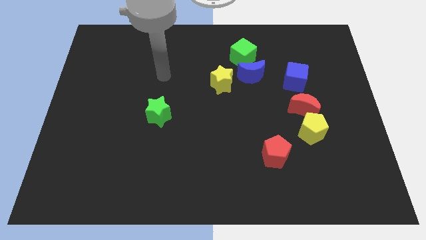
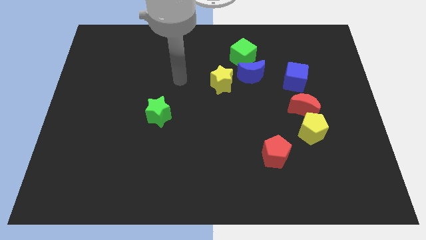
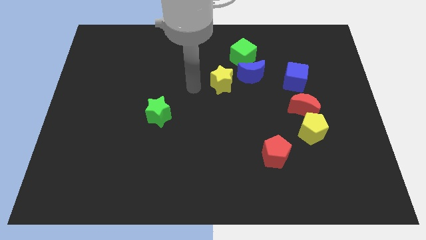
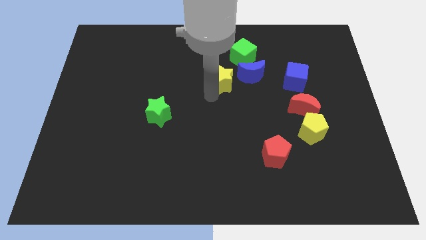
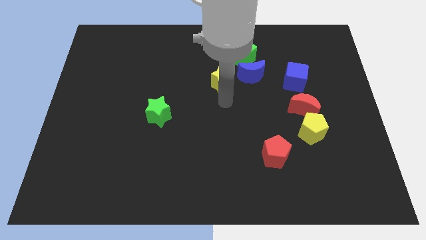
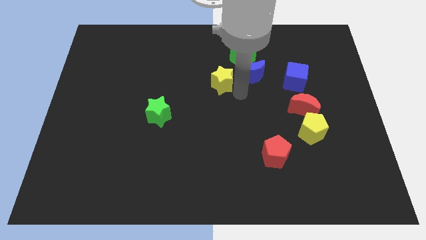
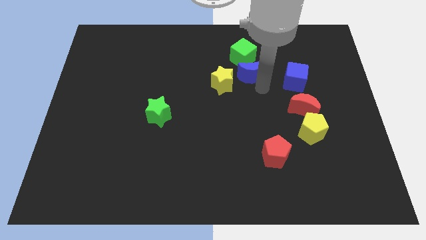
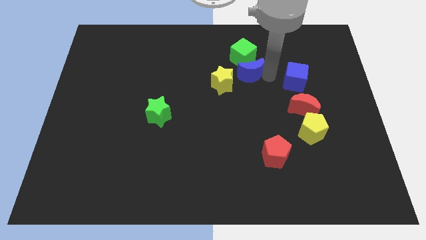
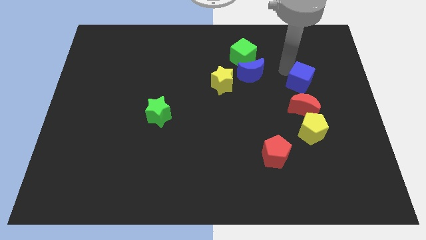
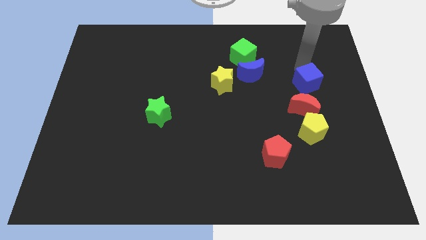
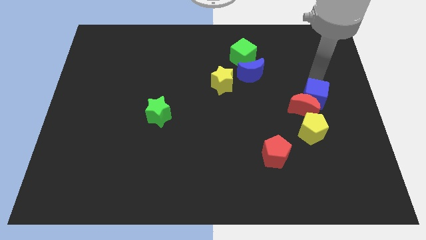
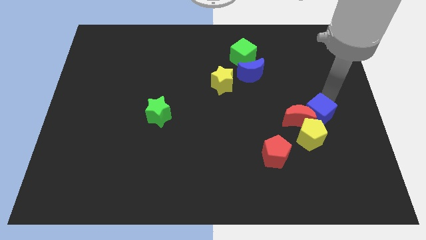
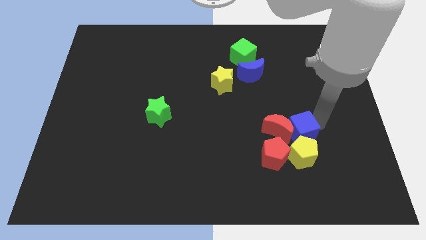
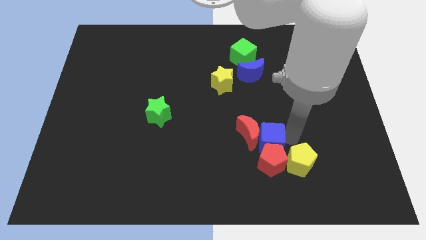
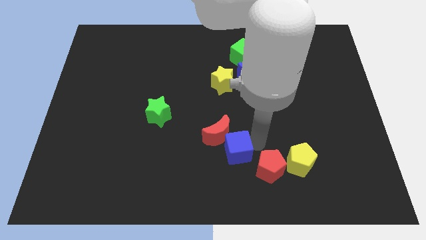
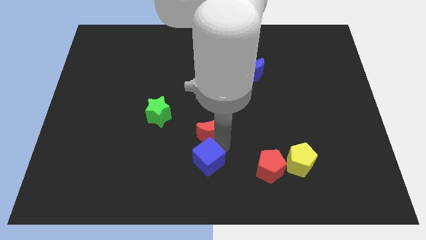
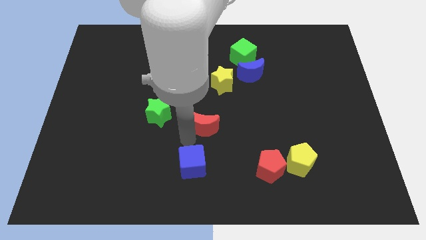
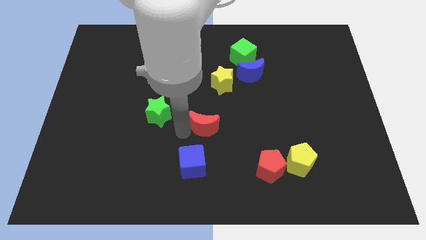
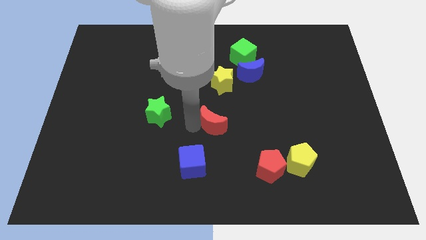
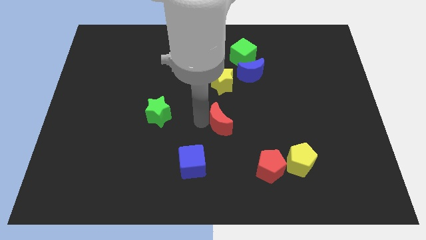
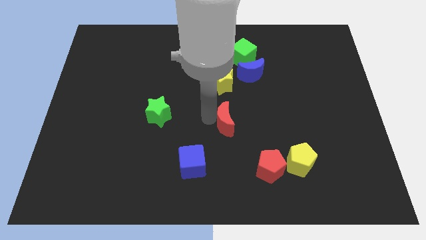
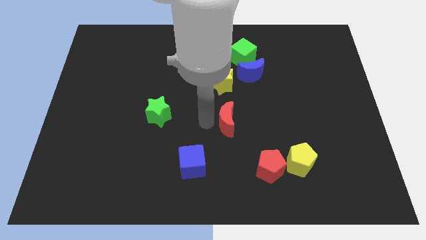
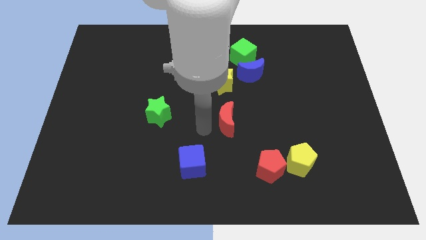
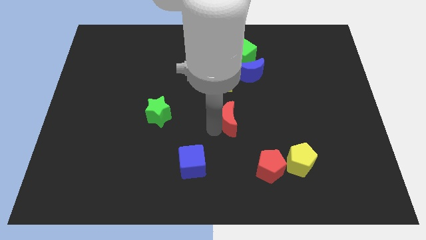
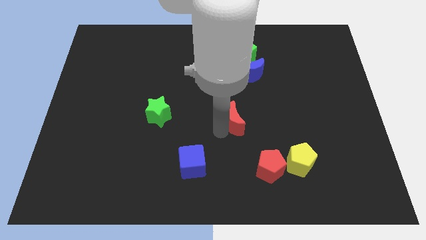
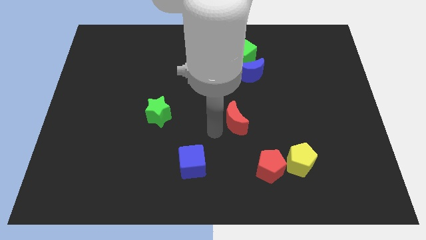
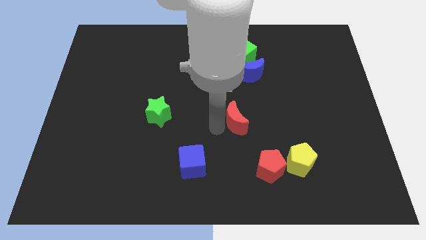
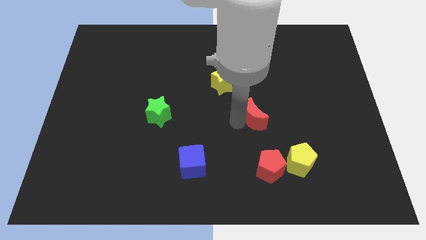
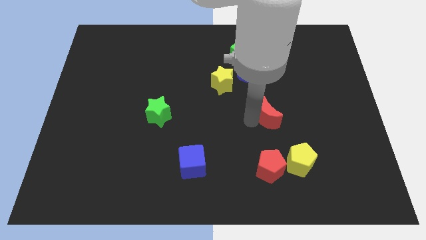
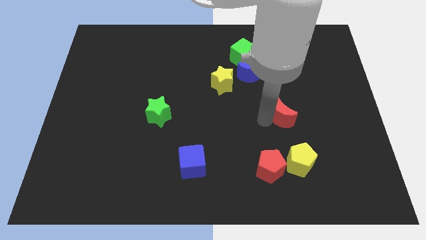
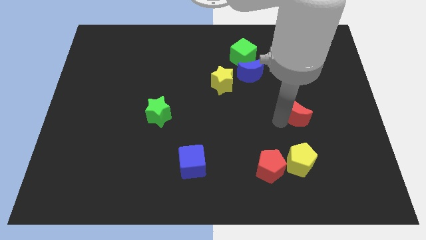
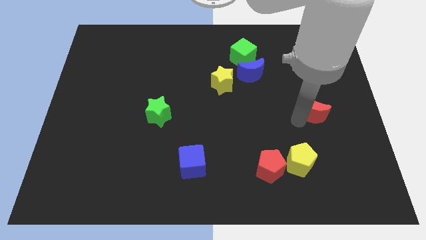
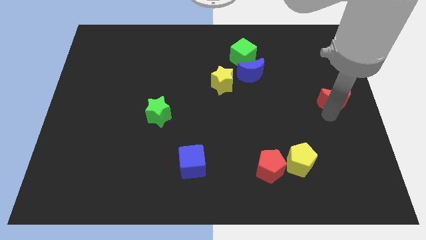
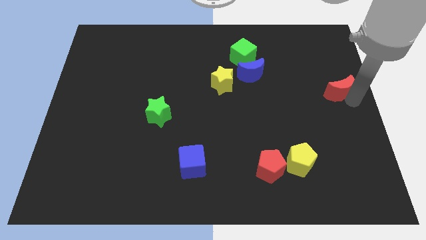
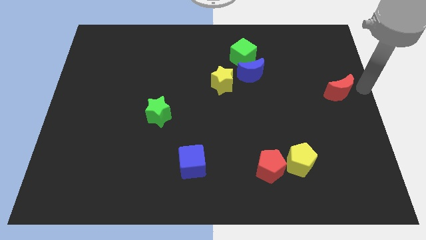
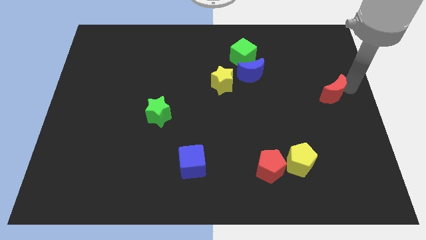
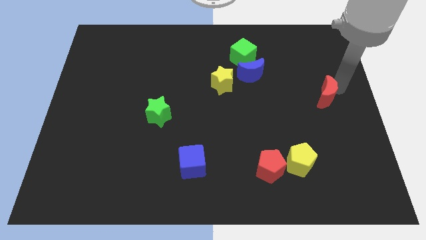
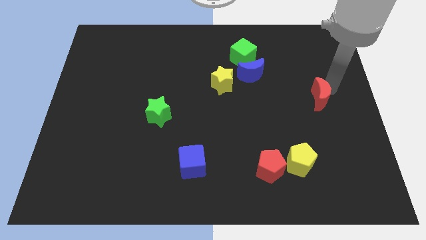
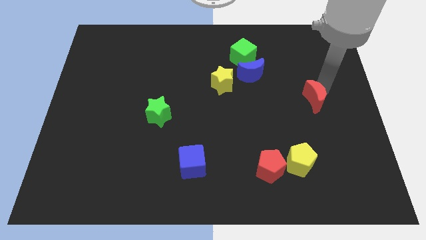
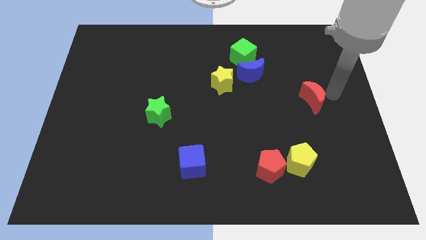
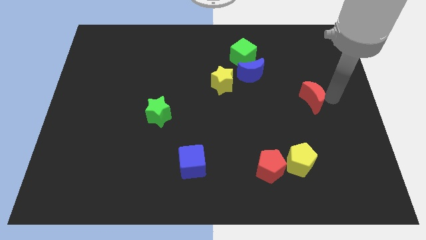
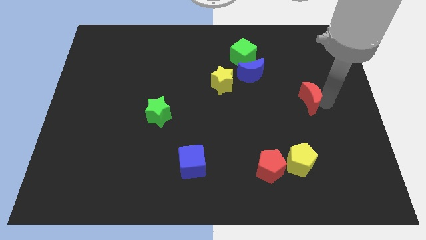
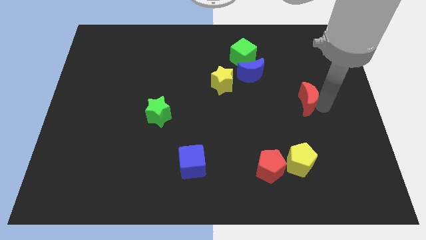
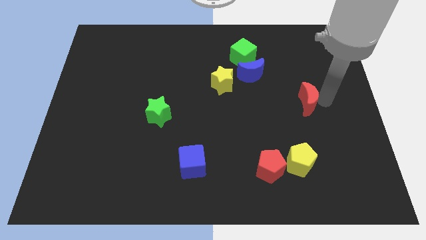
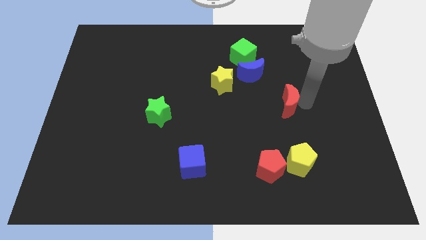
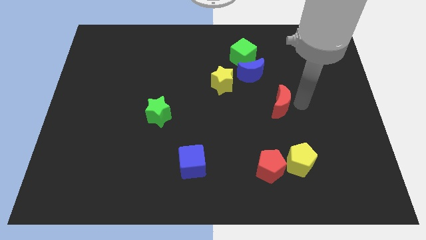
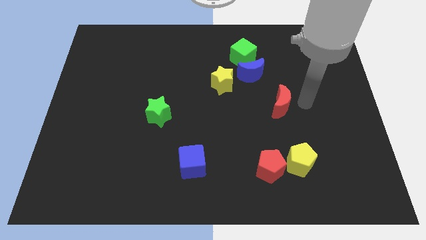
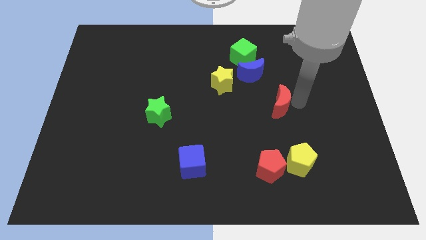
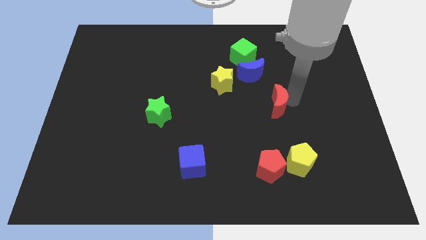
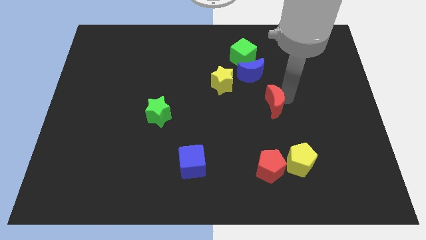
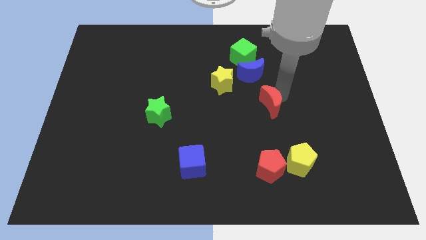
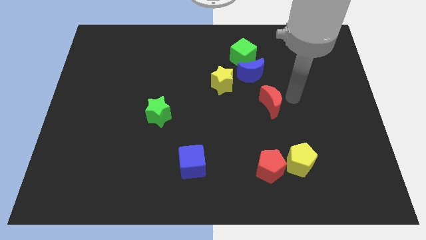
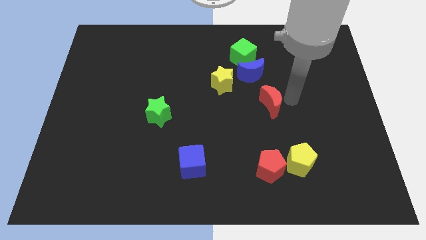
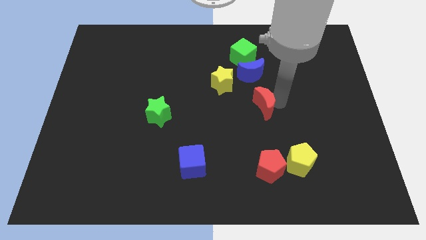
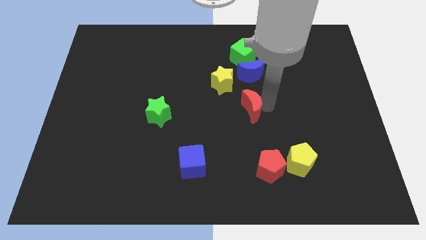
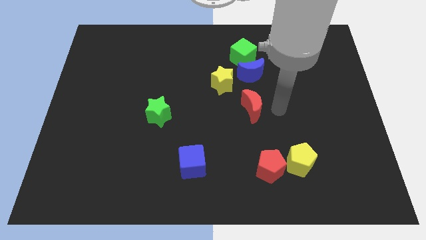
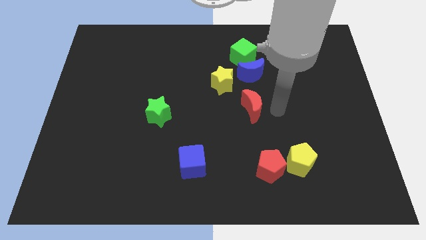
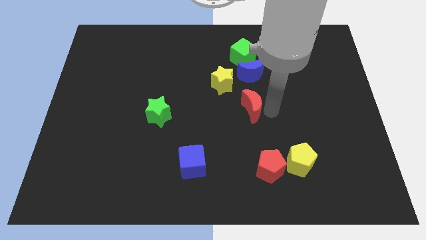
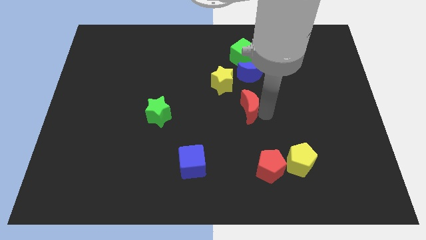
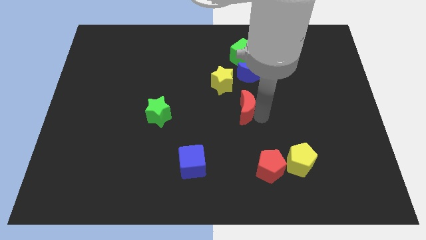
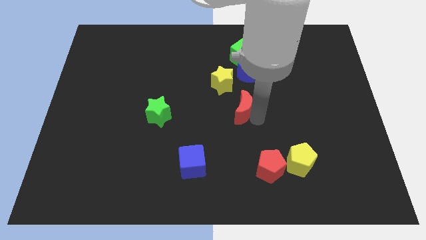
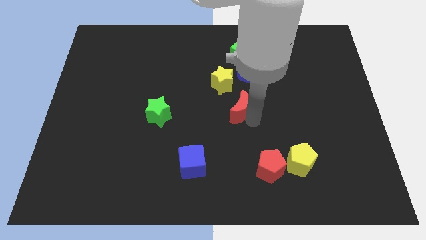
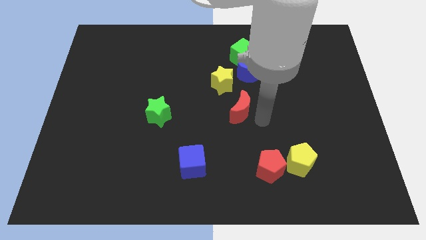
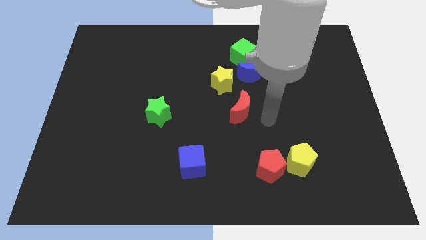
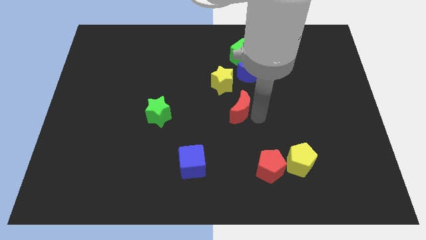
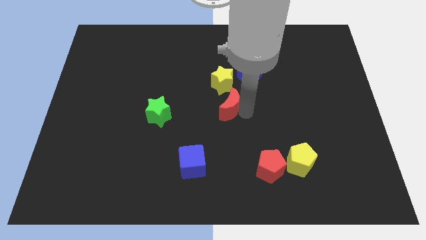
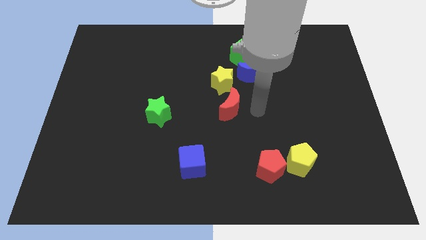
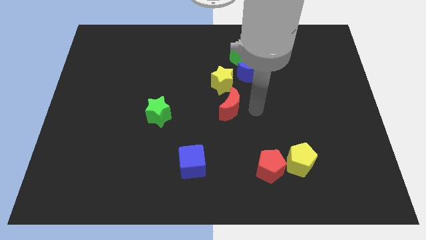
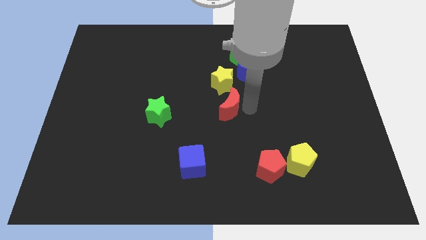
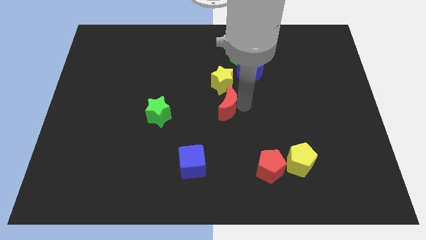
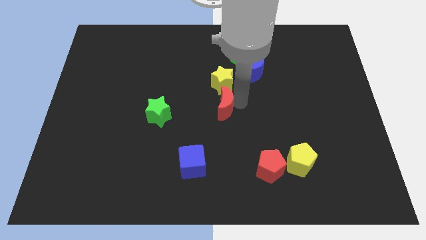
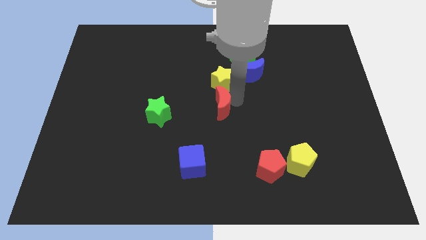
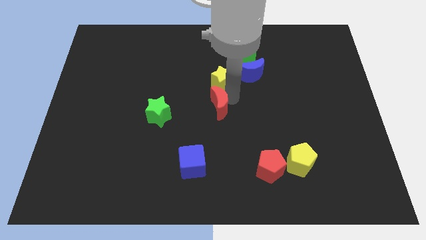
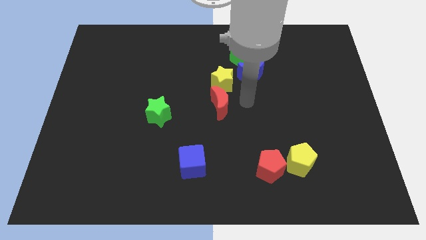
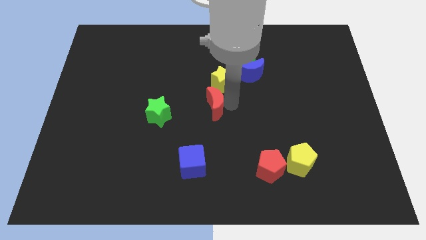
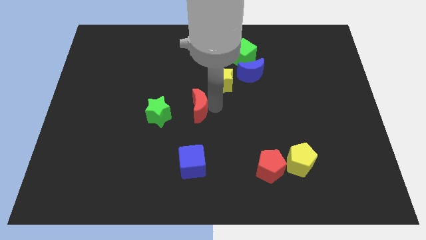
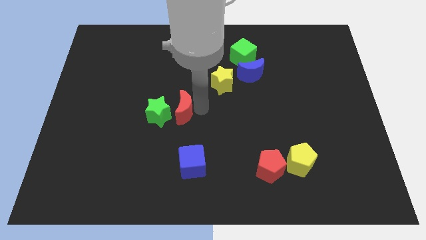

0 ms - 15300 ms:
move the red moon next to the green star

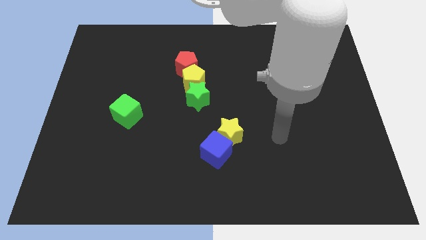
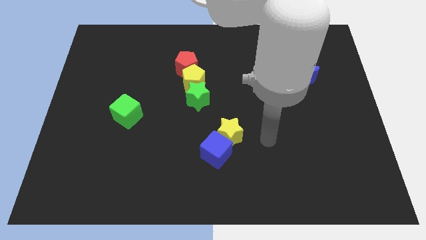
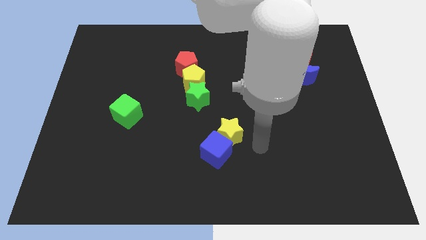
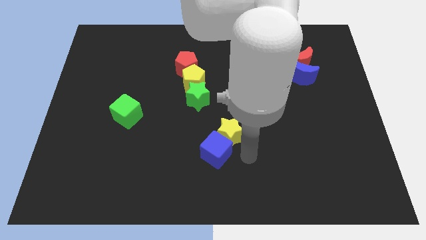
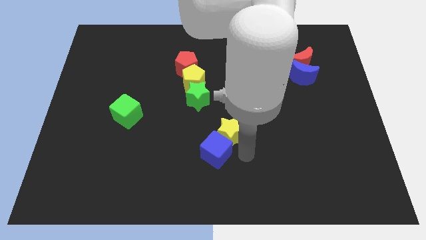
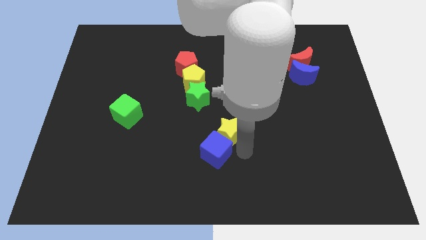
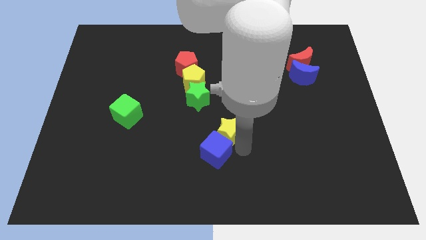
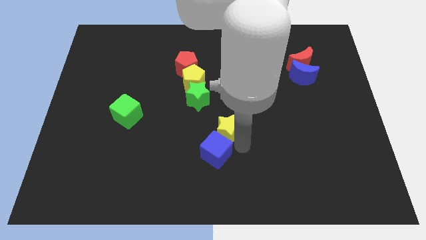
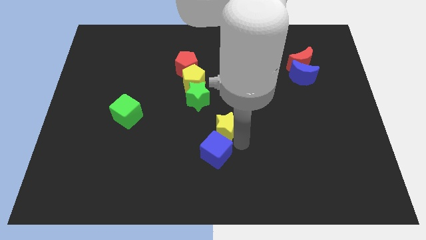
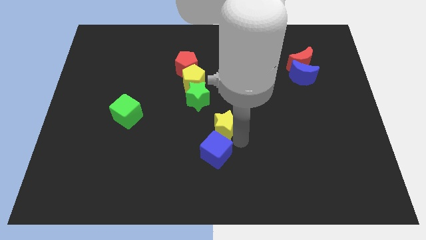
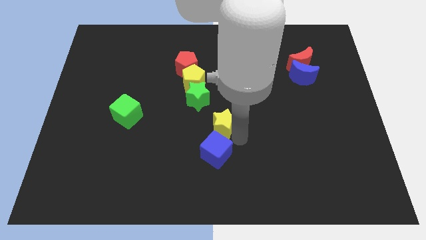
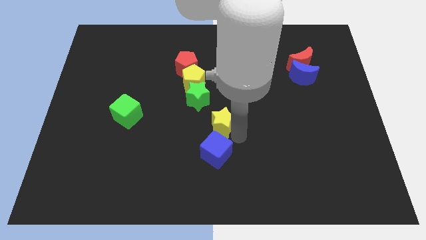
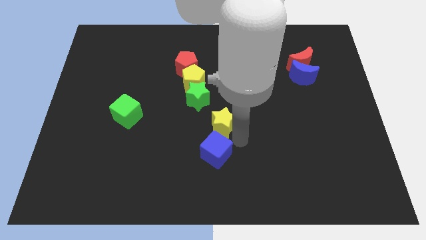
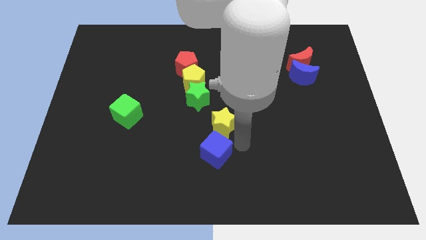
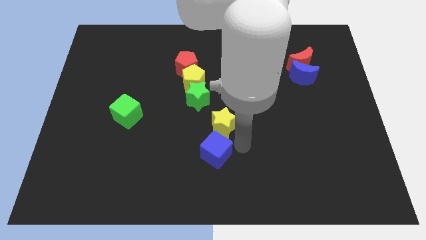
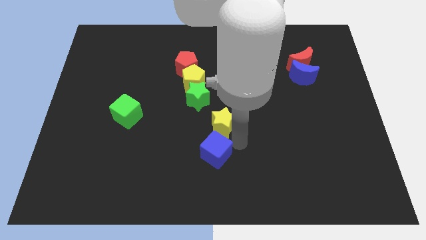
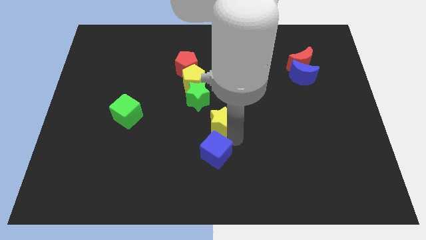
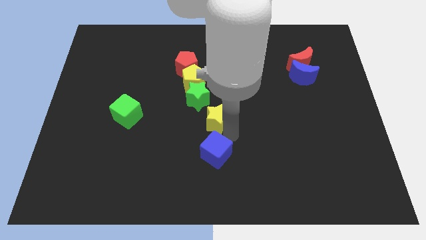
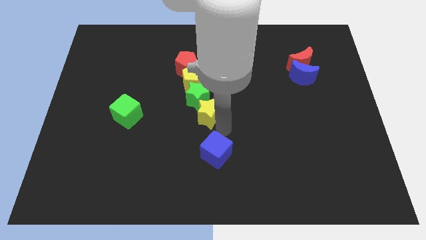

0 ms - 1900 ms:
slide the yellow star next to the green star
